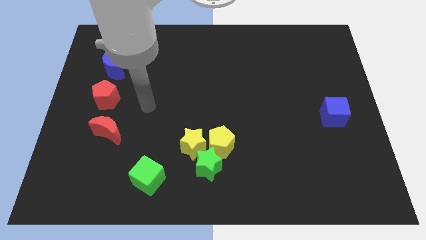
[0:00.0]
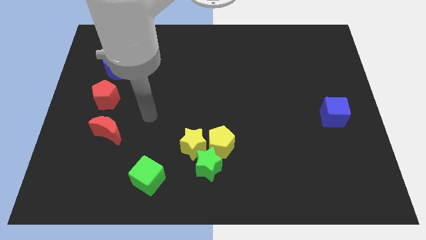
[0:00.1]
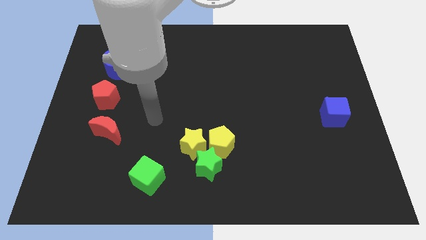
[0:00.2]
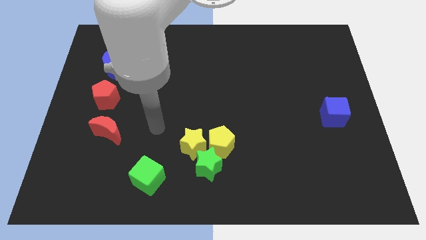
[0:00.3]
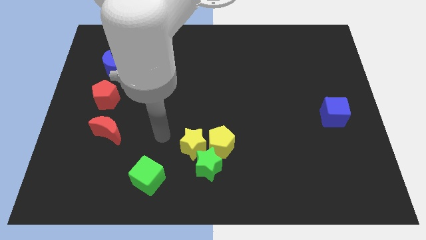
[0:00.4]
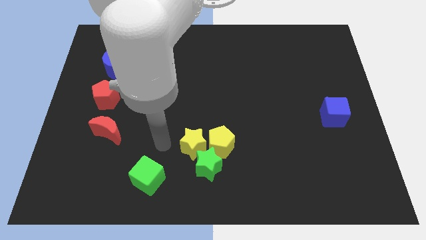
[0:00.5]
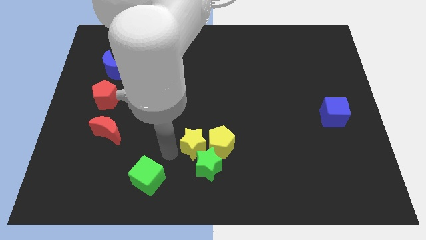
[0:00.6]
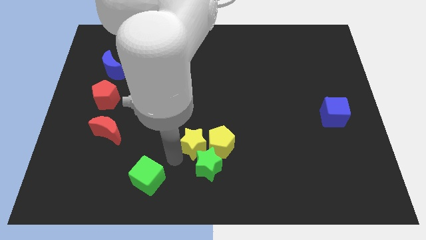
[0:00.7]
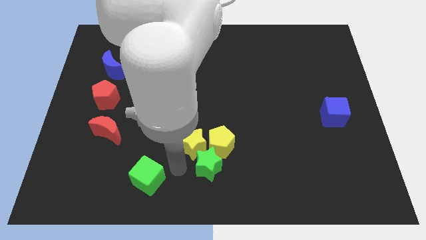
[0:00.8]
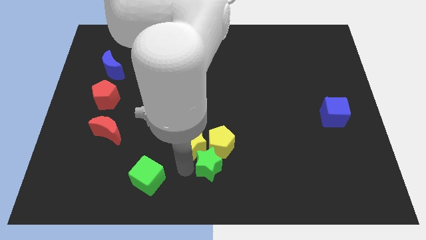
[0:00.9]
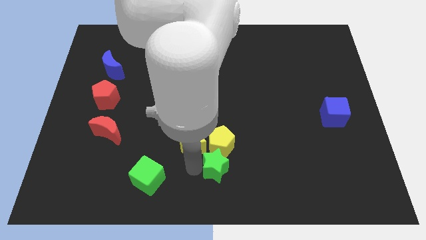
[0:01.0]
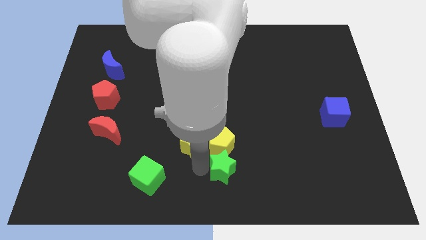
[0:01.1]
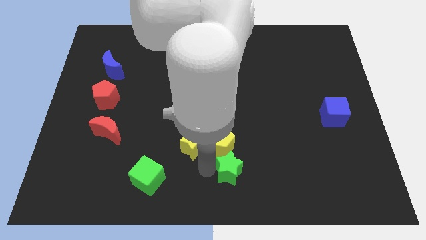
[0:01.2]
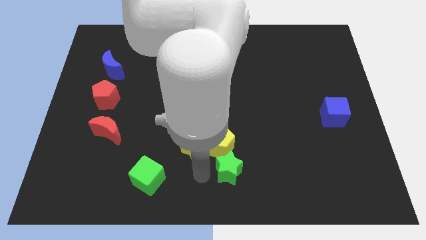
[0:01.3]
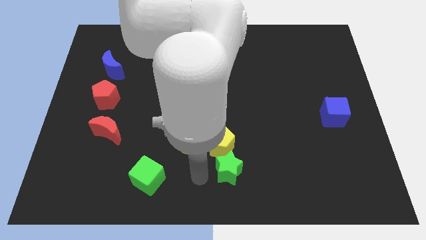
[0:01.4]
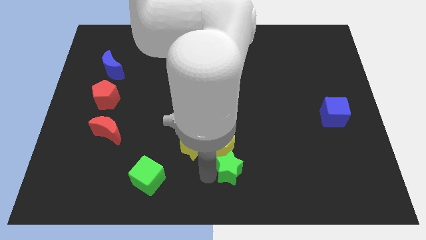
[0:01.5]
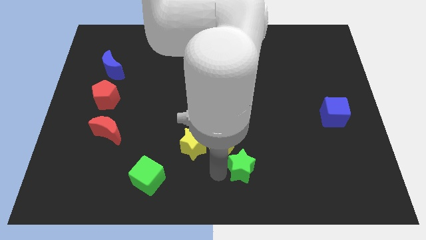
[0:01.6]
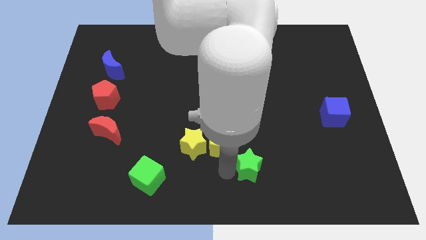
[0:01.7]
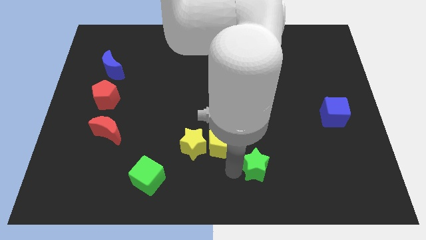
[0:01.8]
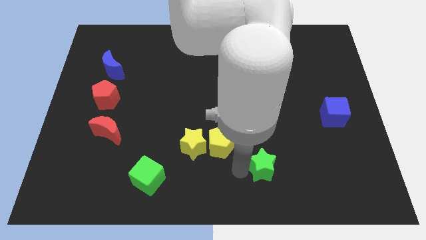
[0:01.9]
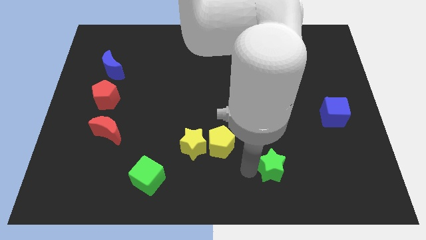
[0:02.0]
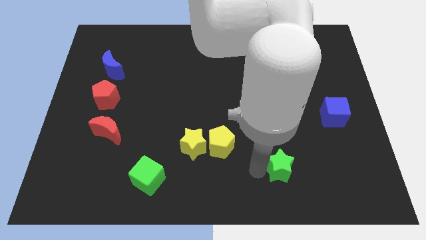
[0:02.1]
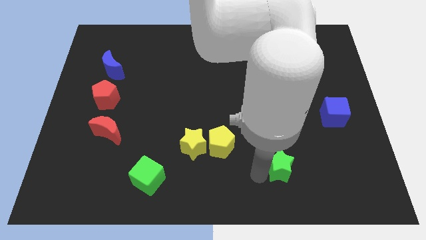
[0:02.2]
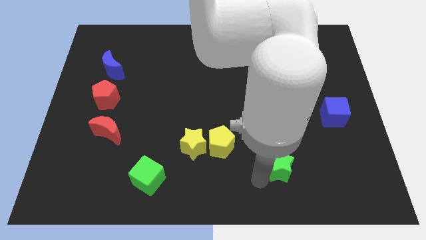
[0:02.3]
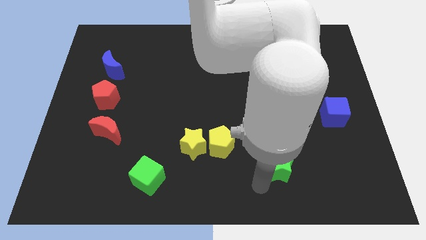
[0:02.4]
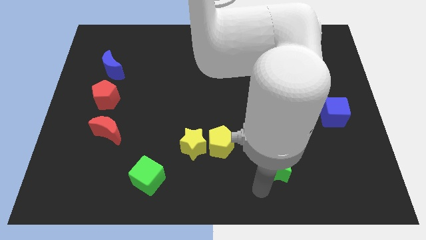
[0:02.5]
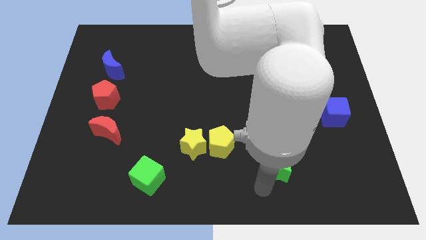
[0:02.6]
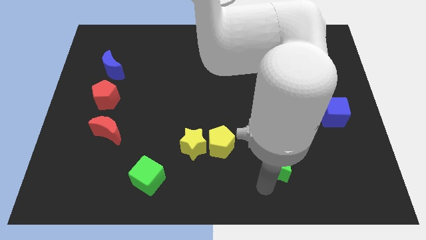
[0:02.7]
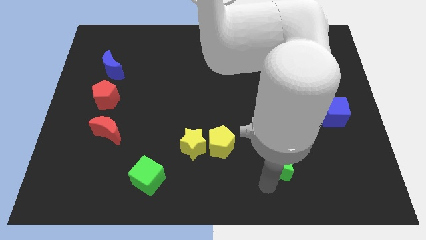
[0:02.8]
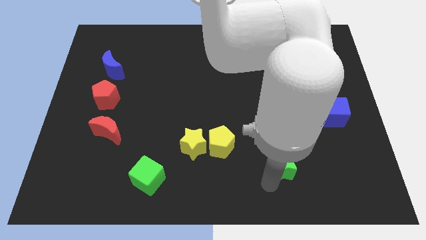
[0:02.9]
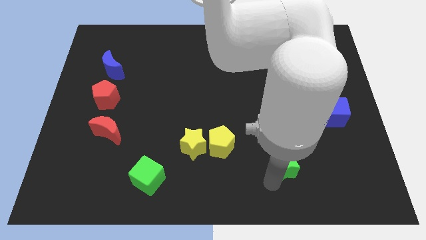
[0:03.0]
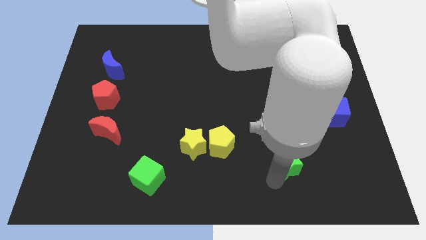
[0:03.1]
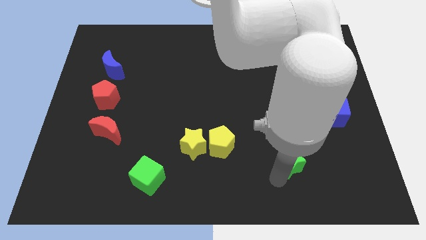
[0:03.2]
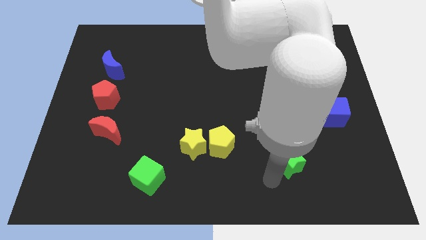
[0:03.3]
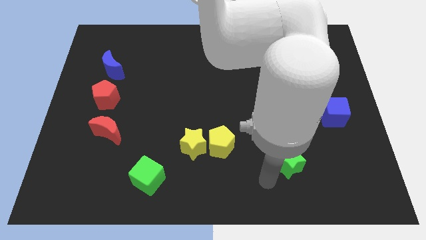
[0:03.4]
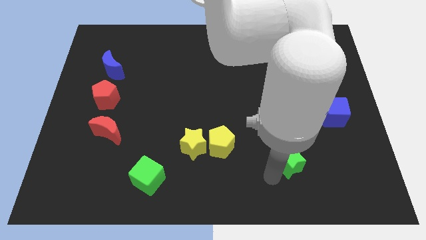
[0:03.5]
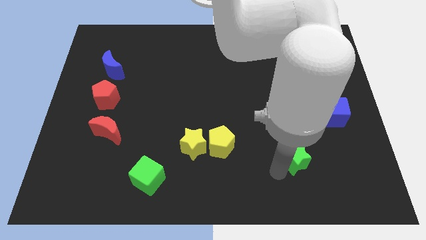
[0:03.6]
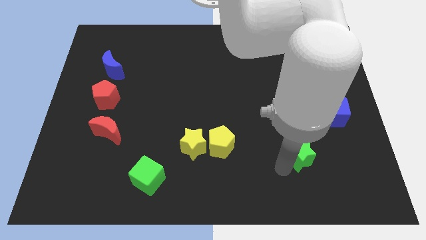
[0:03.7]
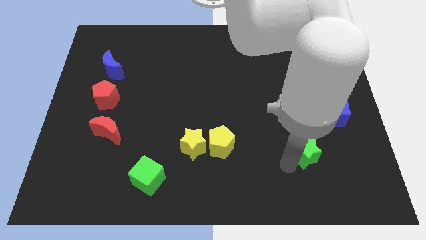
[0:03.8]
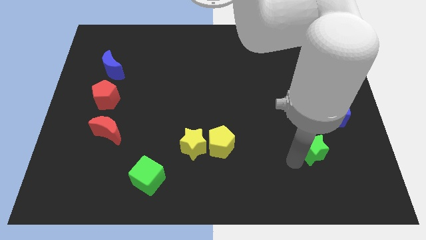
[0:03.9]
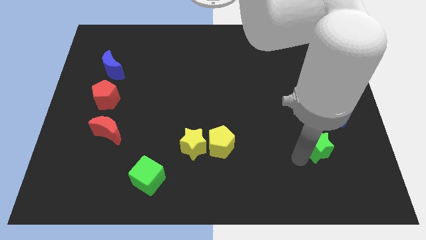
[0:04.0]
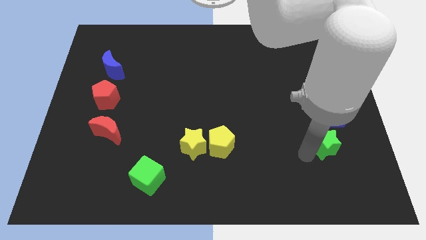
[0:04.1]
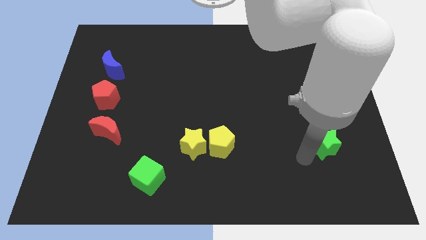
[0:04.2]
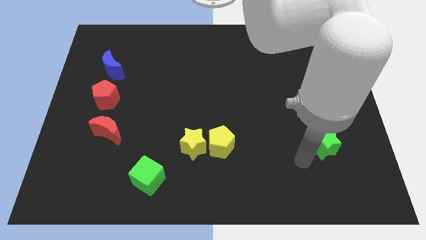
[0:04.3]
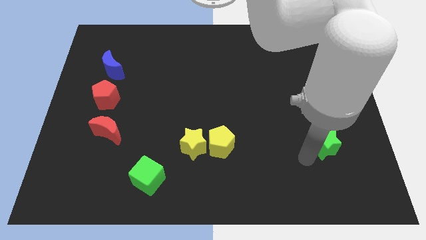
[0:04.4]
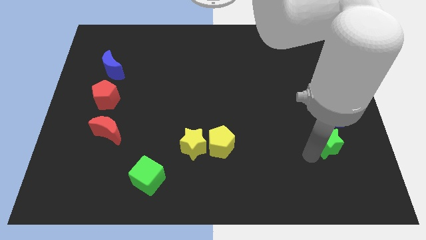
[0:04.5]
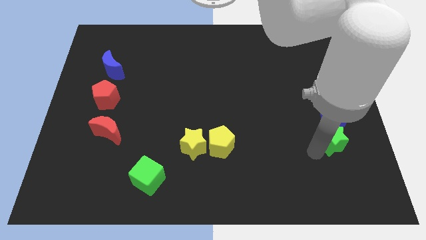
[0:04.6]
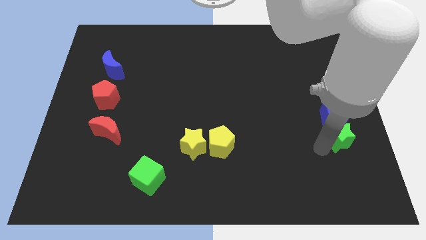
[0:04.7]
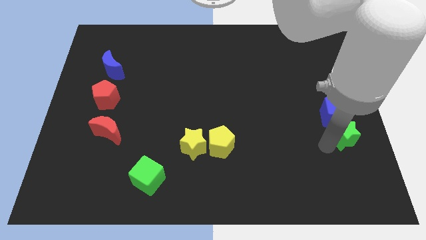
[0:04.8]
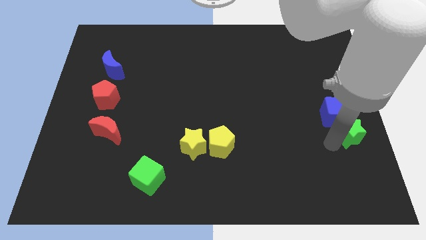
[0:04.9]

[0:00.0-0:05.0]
push the green star to the right side
